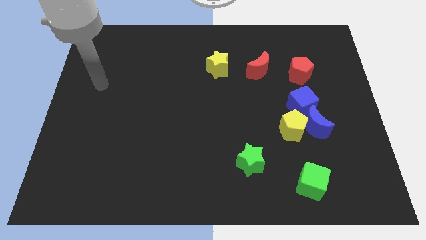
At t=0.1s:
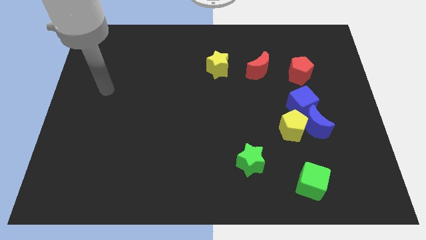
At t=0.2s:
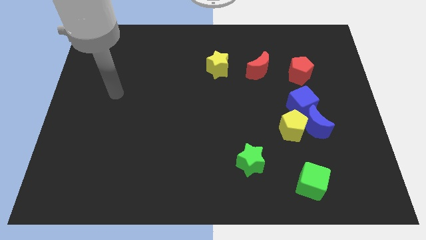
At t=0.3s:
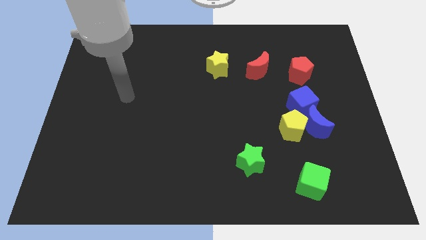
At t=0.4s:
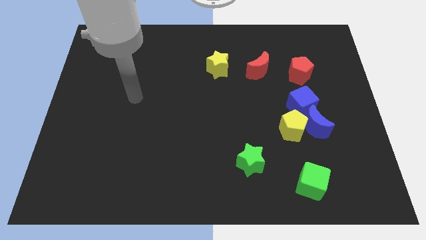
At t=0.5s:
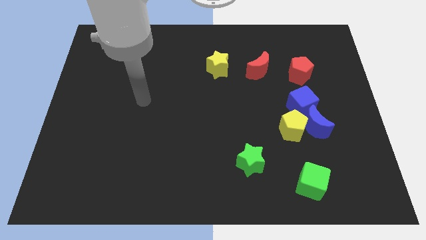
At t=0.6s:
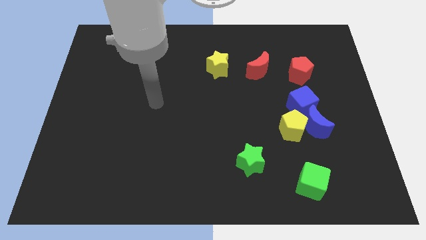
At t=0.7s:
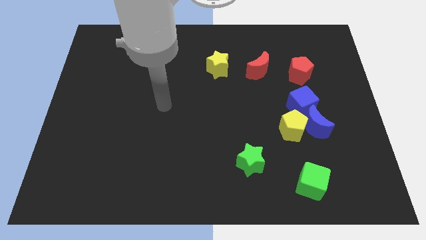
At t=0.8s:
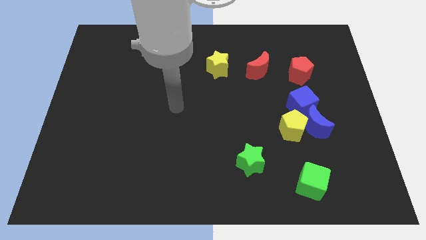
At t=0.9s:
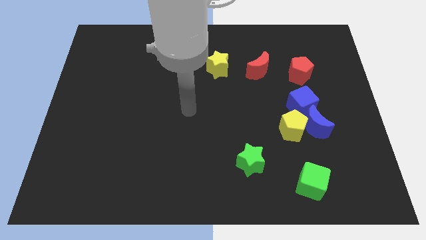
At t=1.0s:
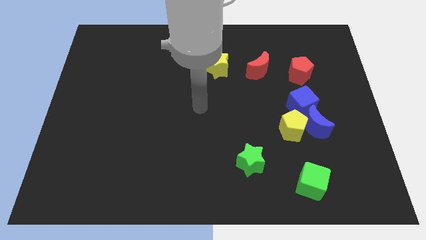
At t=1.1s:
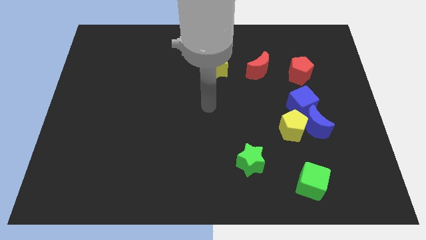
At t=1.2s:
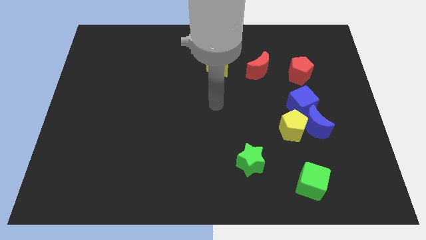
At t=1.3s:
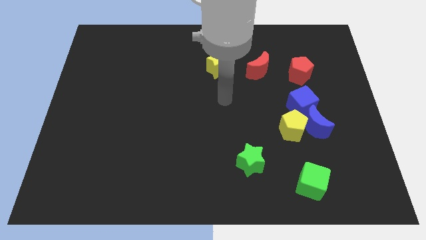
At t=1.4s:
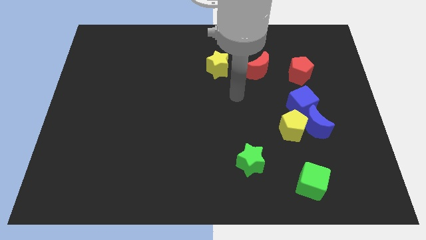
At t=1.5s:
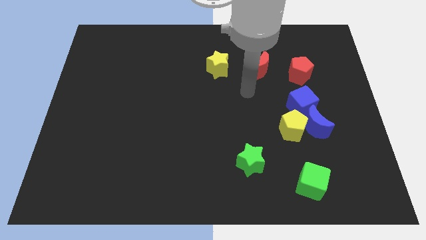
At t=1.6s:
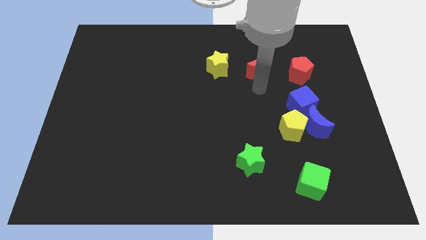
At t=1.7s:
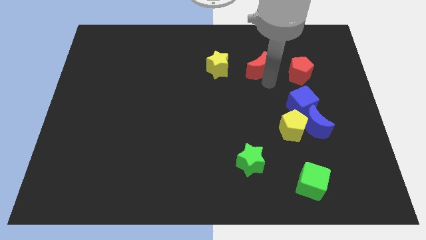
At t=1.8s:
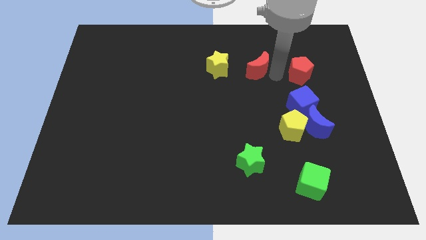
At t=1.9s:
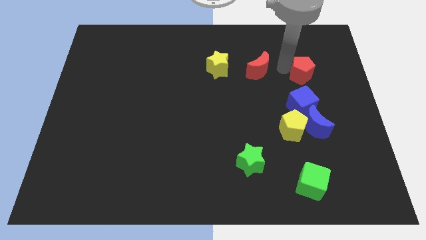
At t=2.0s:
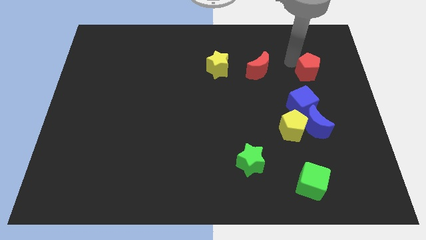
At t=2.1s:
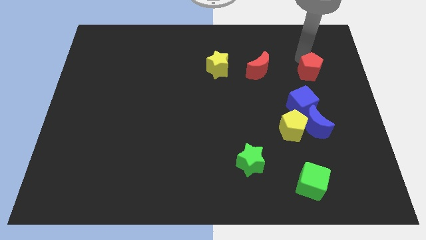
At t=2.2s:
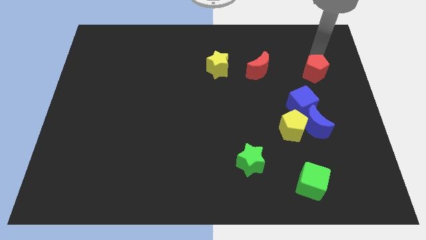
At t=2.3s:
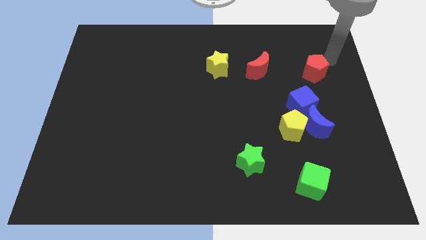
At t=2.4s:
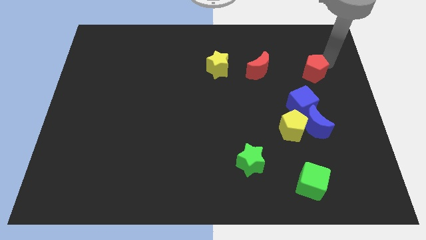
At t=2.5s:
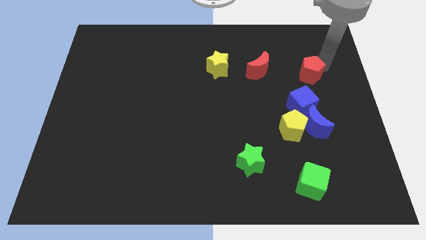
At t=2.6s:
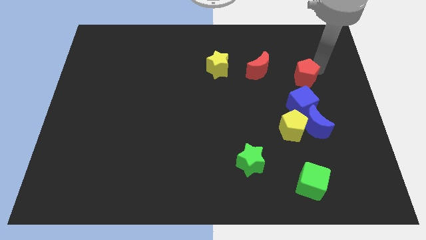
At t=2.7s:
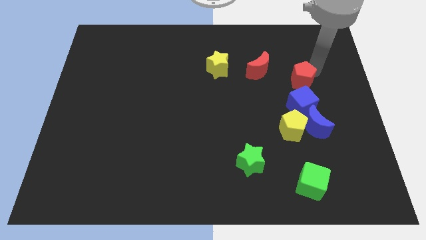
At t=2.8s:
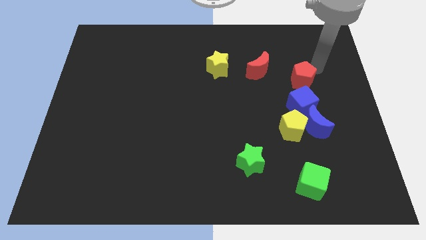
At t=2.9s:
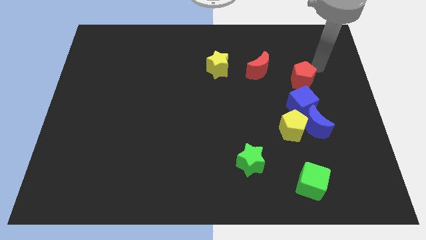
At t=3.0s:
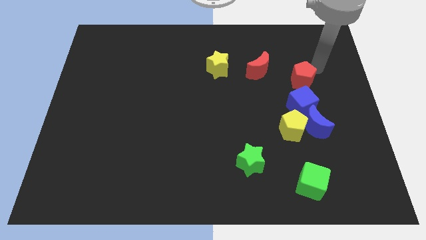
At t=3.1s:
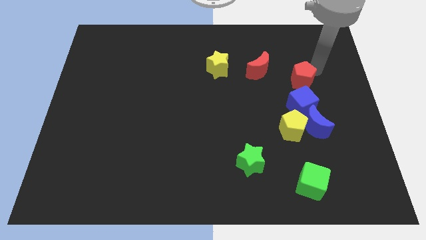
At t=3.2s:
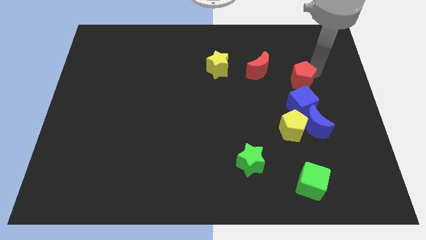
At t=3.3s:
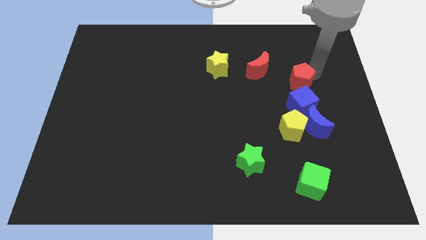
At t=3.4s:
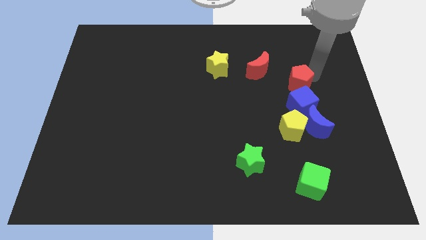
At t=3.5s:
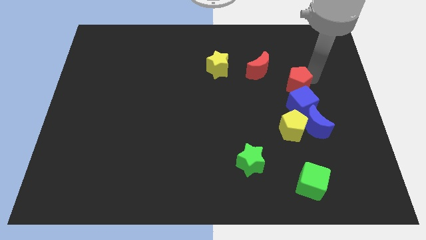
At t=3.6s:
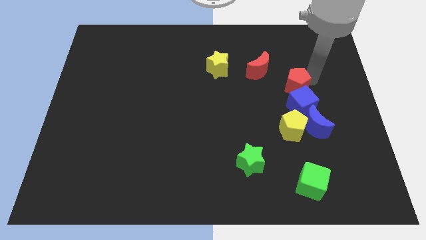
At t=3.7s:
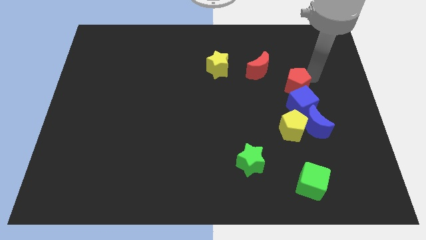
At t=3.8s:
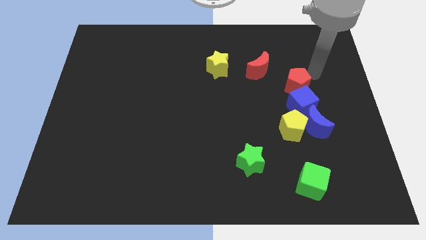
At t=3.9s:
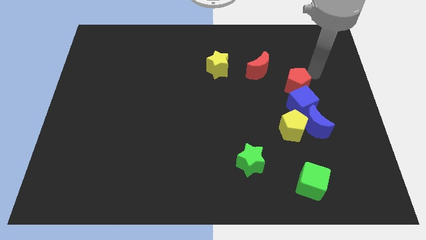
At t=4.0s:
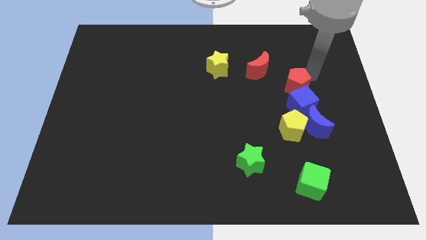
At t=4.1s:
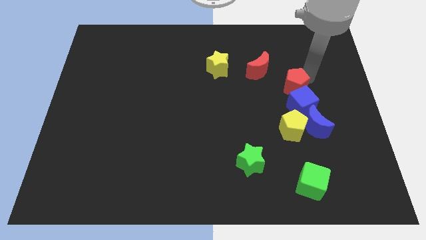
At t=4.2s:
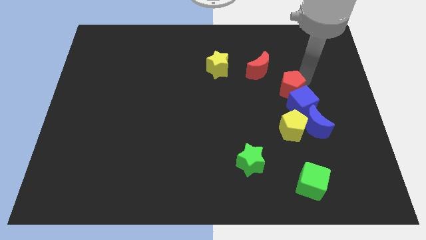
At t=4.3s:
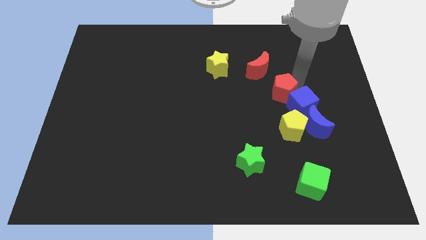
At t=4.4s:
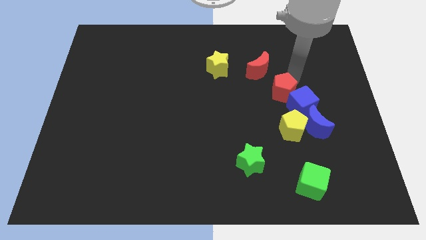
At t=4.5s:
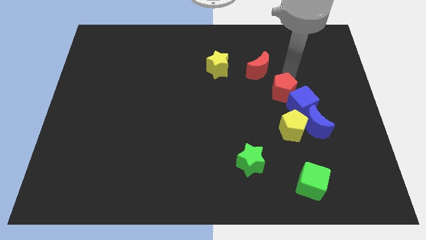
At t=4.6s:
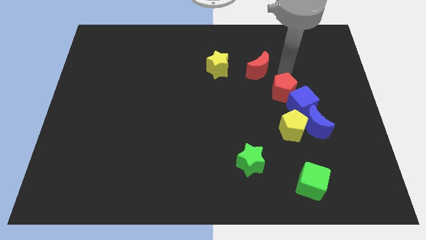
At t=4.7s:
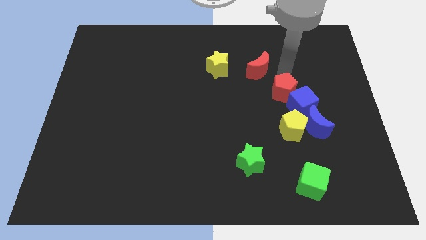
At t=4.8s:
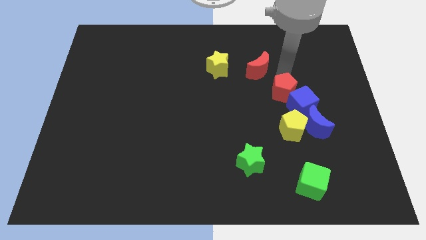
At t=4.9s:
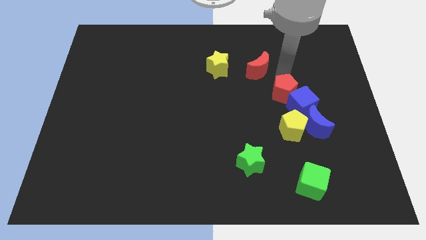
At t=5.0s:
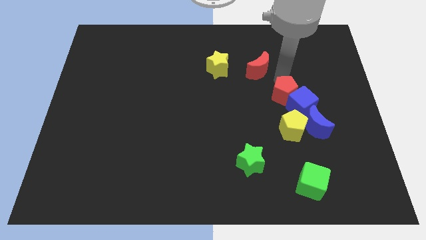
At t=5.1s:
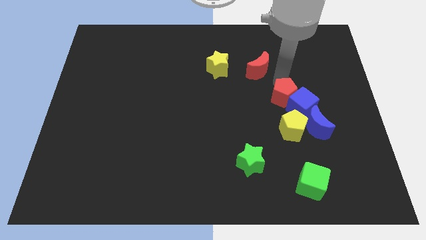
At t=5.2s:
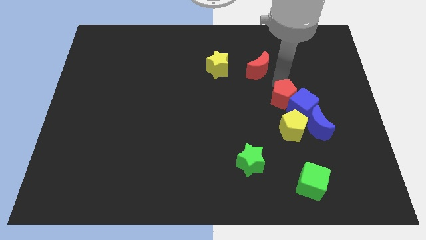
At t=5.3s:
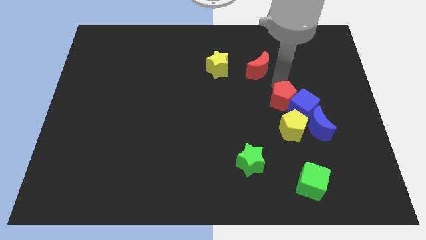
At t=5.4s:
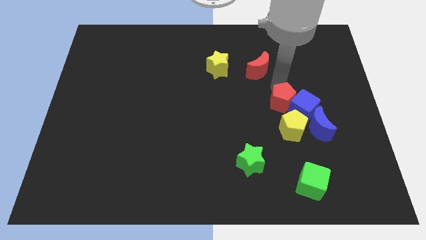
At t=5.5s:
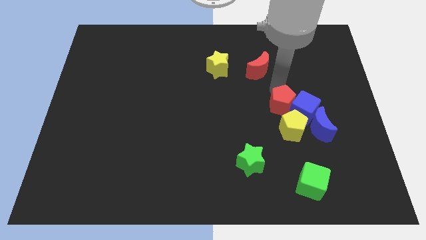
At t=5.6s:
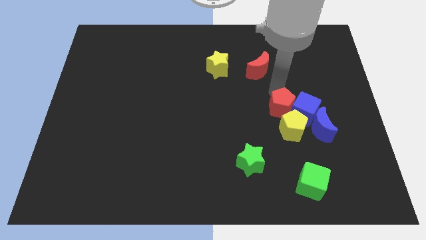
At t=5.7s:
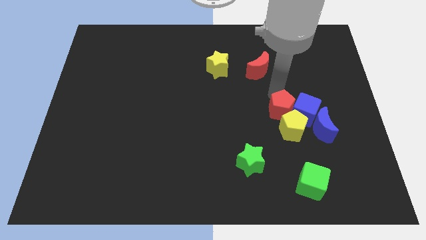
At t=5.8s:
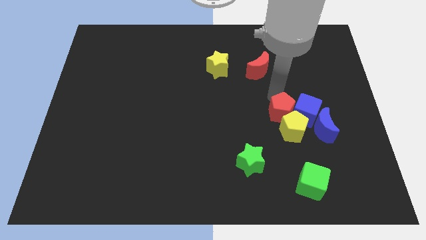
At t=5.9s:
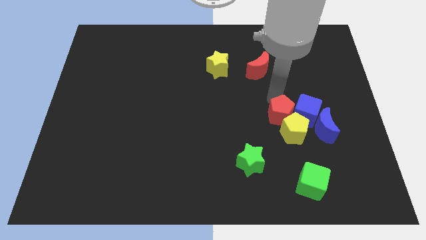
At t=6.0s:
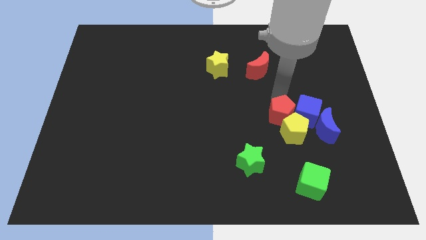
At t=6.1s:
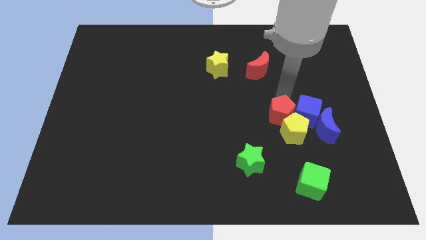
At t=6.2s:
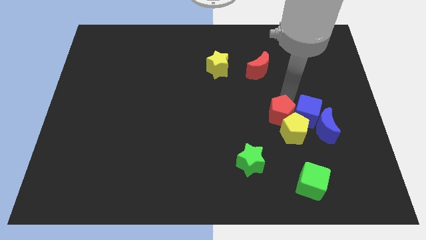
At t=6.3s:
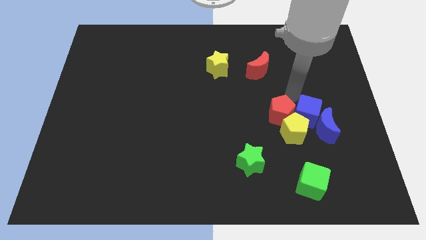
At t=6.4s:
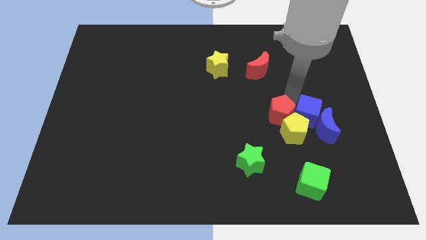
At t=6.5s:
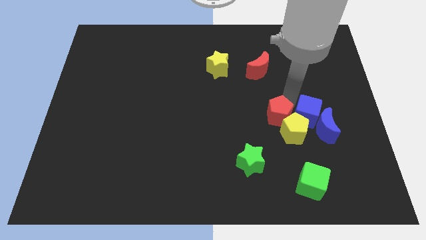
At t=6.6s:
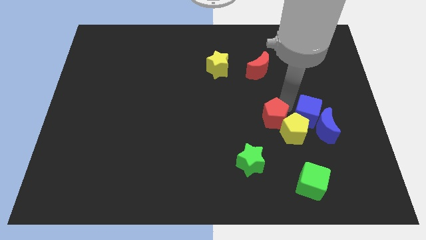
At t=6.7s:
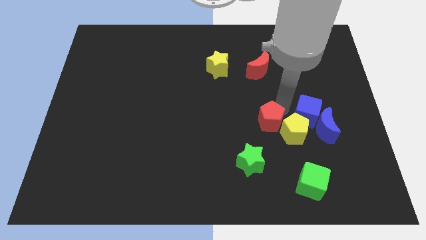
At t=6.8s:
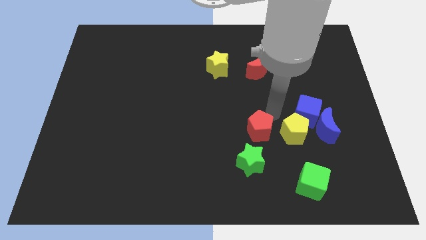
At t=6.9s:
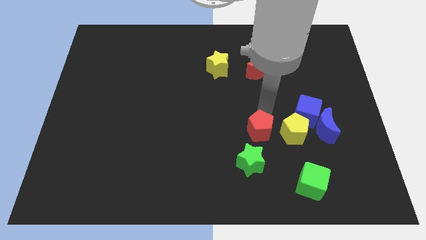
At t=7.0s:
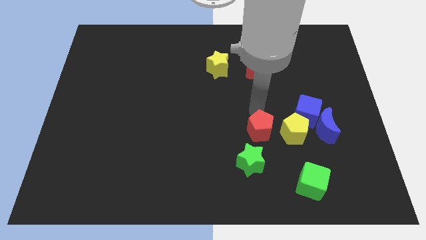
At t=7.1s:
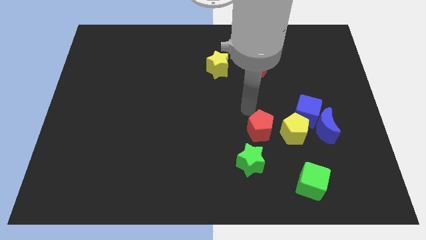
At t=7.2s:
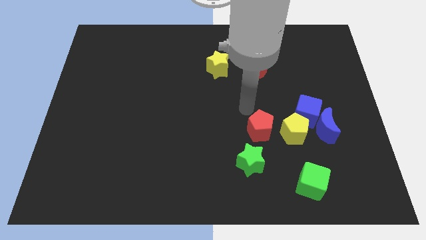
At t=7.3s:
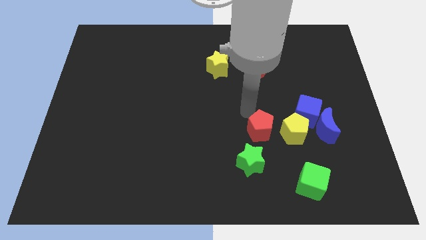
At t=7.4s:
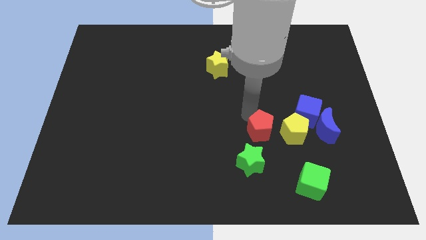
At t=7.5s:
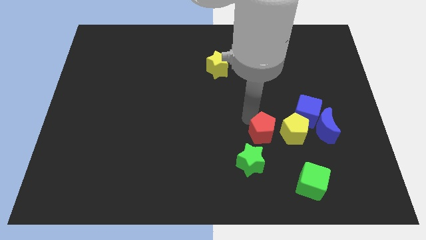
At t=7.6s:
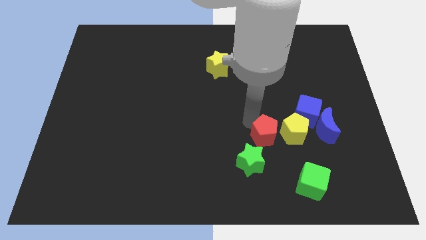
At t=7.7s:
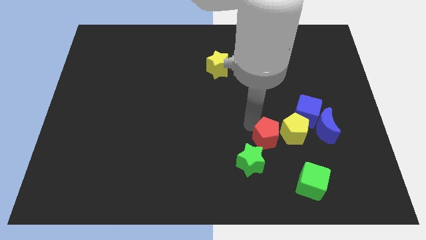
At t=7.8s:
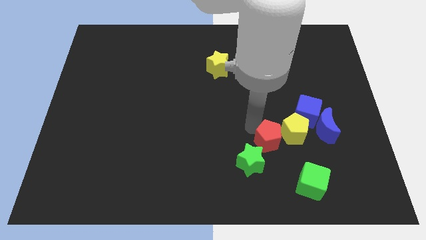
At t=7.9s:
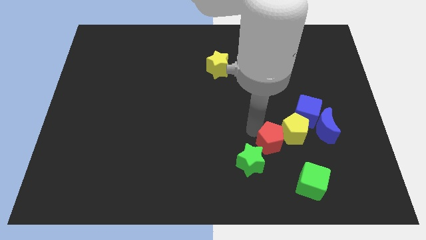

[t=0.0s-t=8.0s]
move the red pentagon diagonally up and to the left of the green cube
